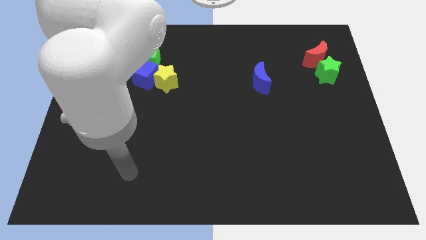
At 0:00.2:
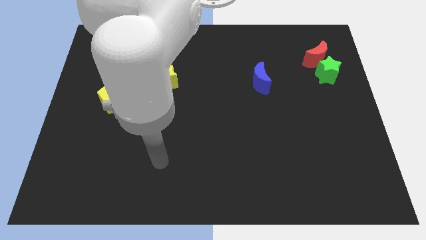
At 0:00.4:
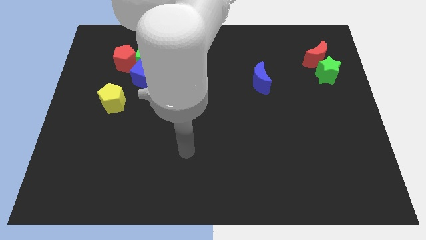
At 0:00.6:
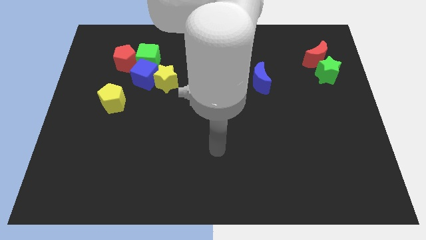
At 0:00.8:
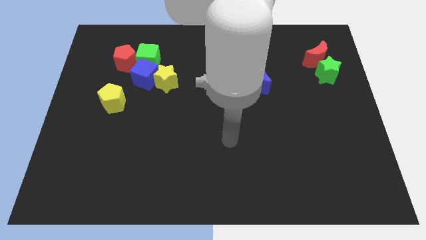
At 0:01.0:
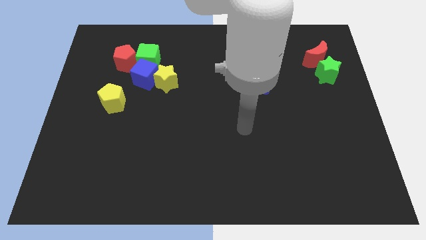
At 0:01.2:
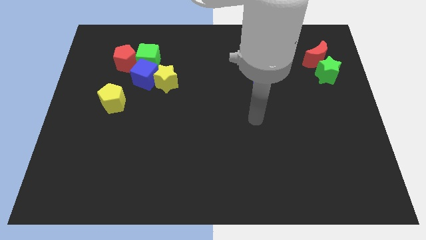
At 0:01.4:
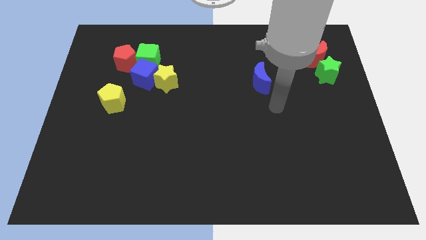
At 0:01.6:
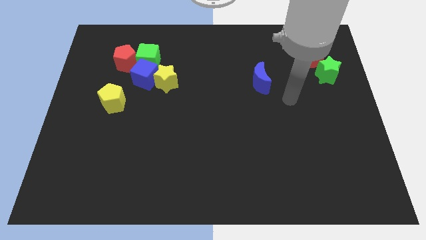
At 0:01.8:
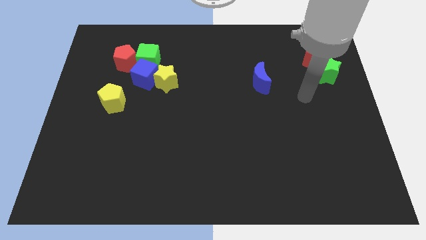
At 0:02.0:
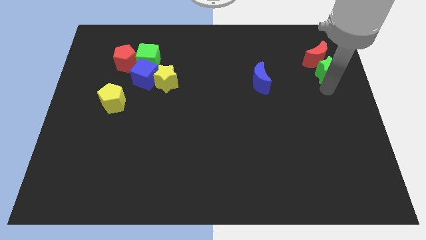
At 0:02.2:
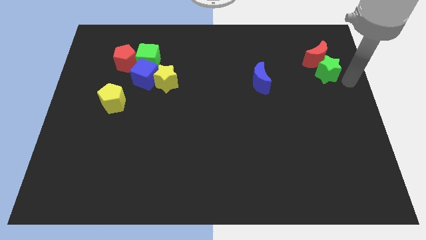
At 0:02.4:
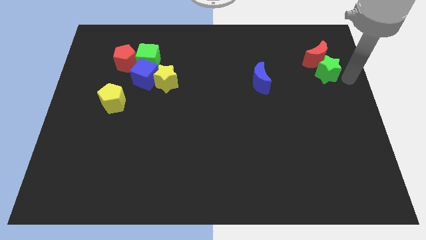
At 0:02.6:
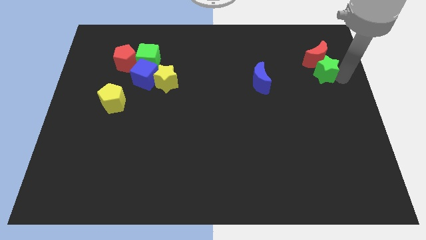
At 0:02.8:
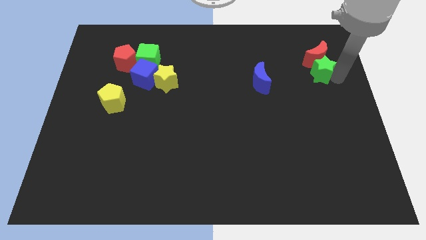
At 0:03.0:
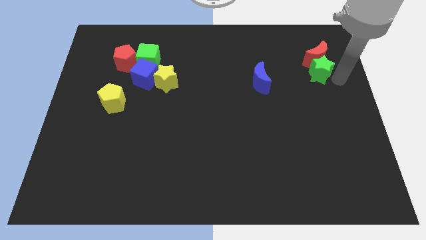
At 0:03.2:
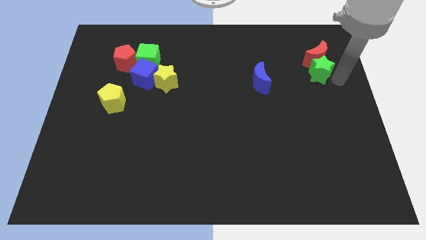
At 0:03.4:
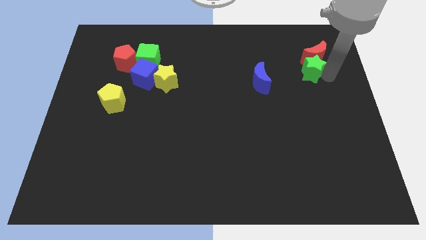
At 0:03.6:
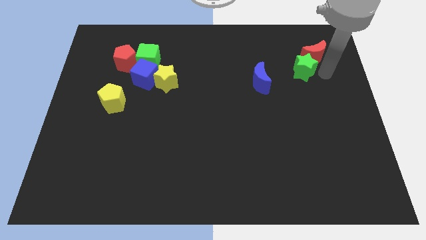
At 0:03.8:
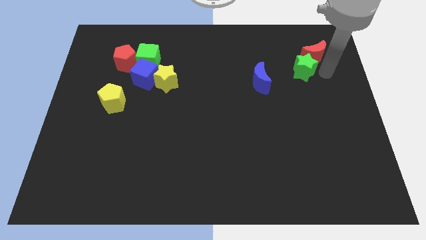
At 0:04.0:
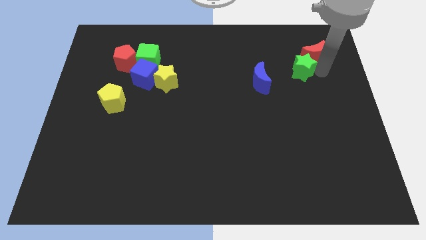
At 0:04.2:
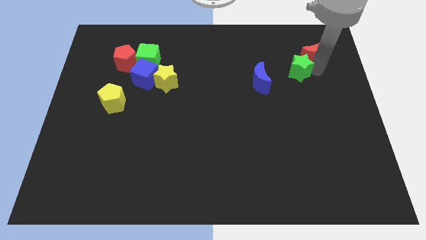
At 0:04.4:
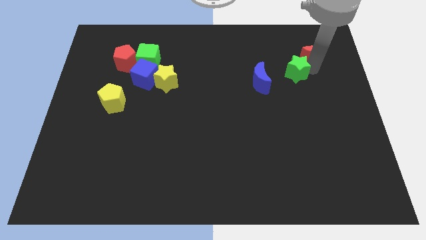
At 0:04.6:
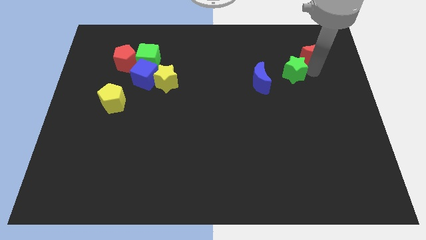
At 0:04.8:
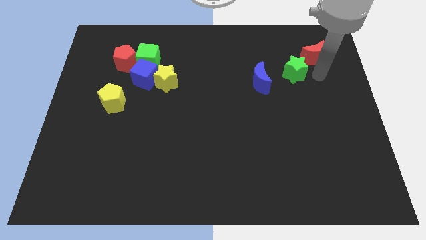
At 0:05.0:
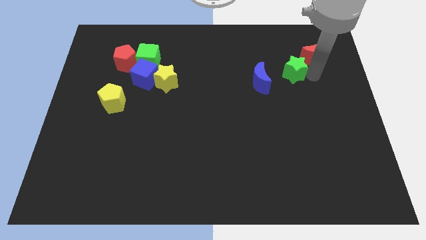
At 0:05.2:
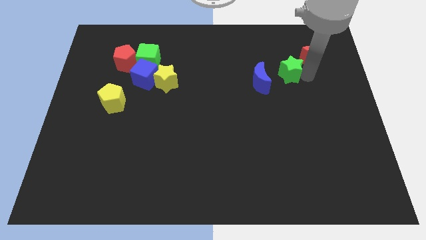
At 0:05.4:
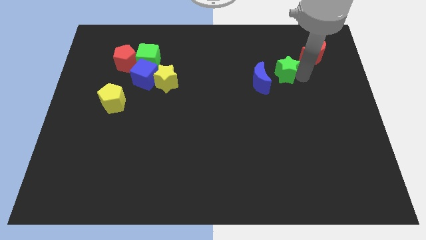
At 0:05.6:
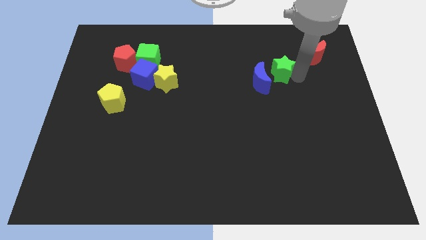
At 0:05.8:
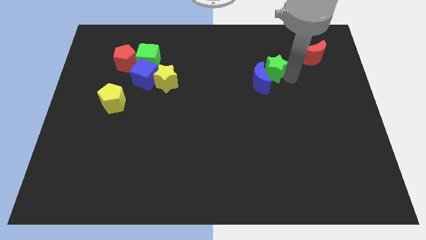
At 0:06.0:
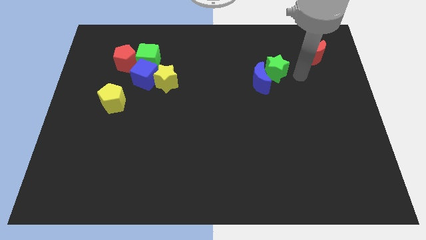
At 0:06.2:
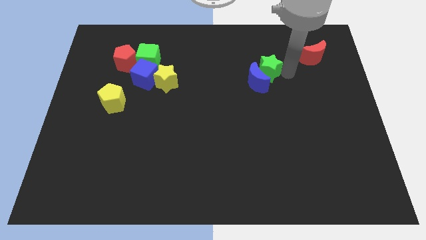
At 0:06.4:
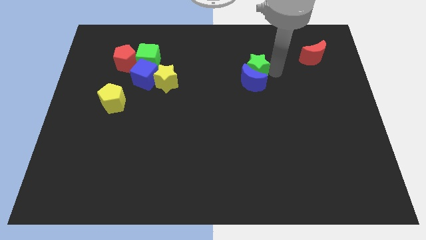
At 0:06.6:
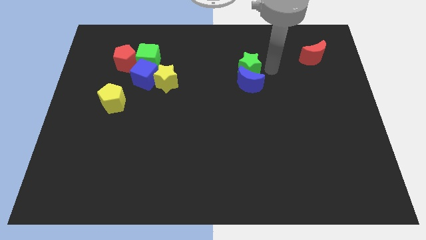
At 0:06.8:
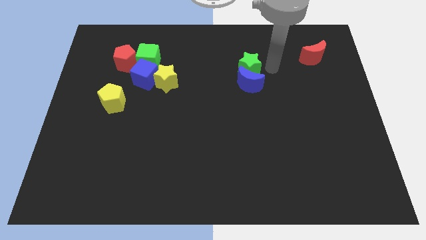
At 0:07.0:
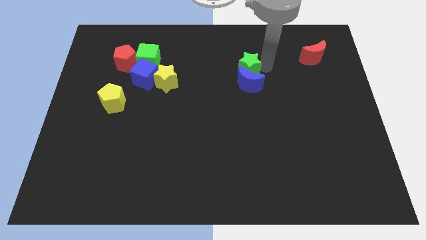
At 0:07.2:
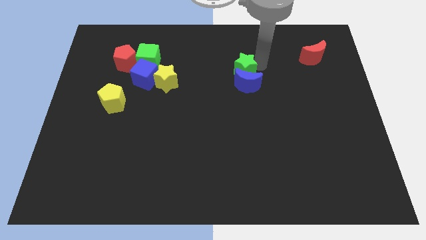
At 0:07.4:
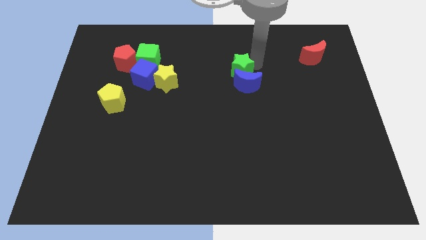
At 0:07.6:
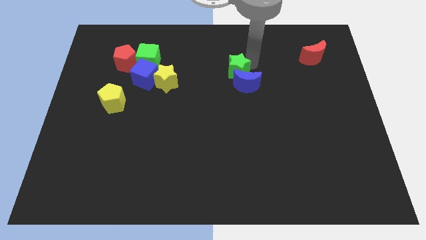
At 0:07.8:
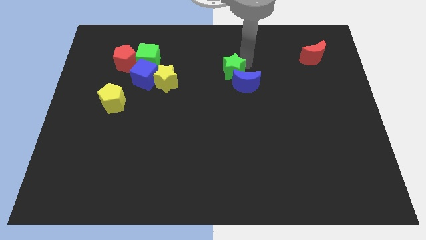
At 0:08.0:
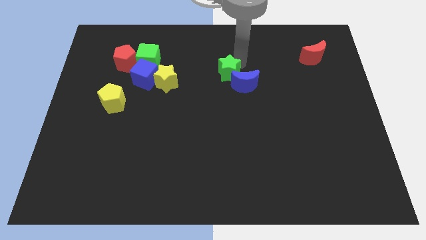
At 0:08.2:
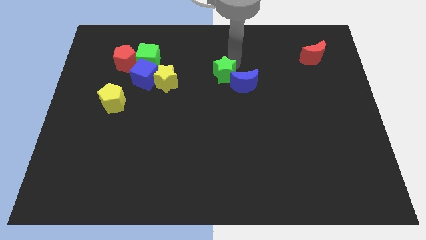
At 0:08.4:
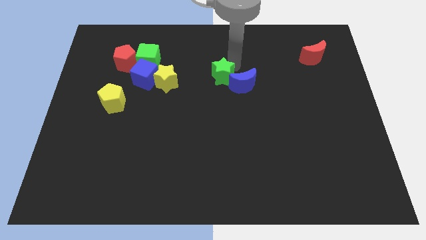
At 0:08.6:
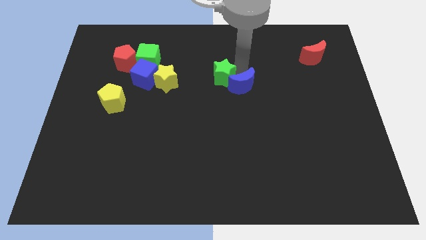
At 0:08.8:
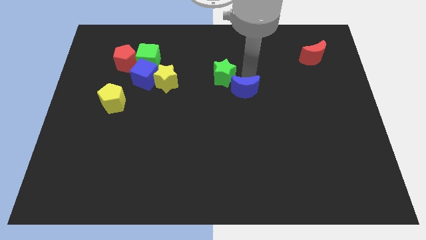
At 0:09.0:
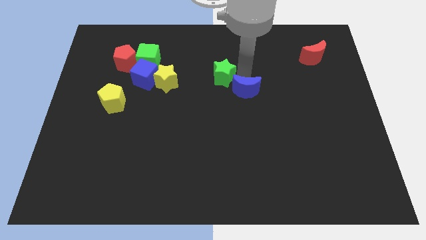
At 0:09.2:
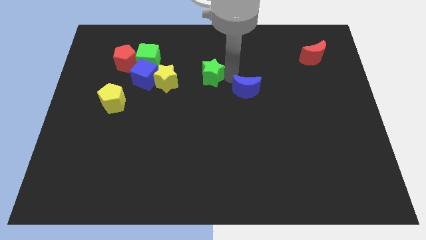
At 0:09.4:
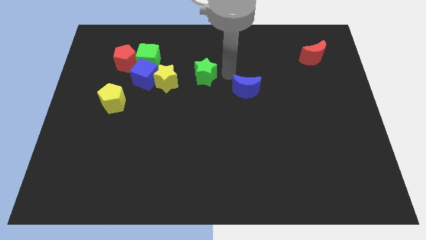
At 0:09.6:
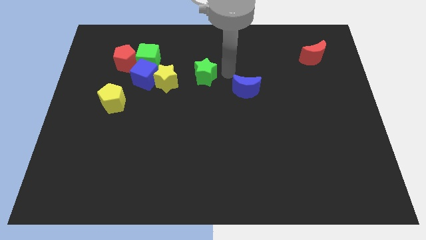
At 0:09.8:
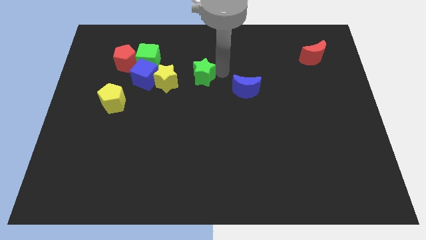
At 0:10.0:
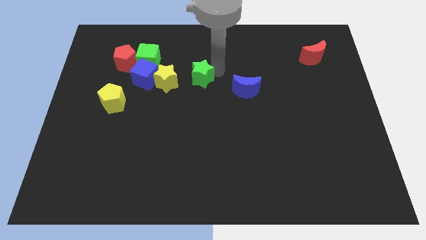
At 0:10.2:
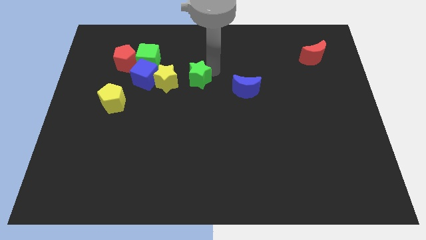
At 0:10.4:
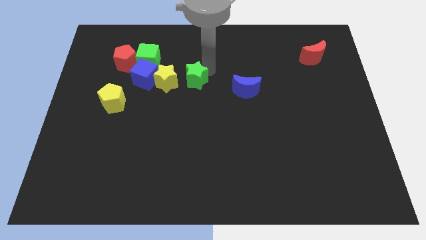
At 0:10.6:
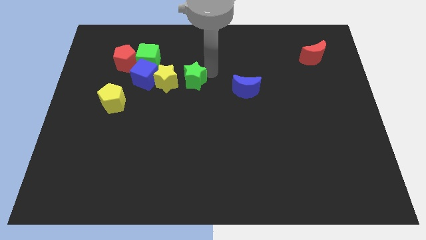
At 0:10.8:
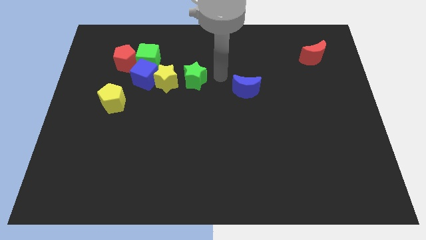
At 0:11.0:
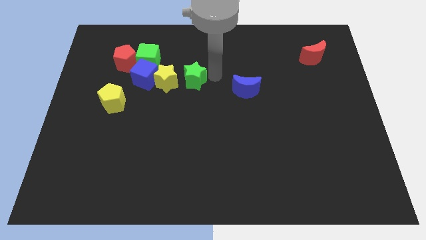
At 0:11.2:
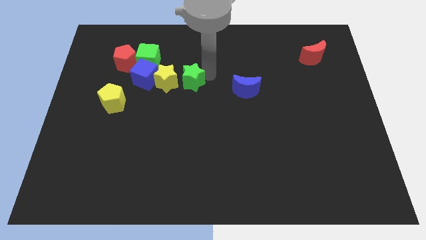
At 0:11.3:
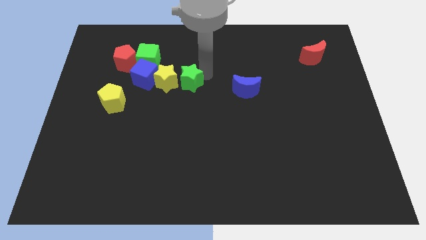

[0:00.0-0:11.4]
move the green star towards the yellow star

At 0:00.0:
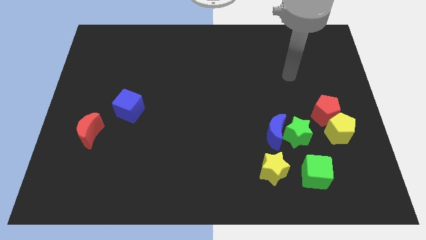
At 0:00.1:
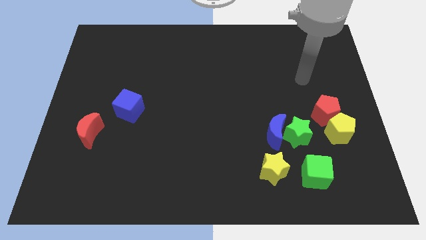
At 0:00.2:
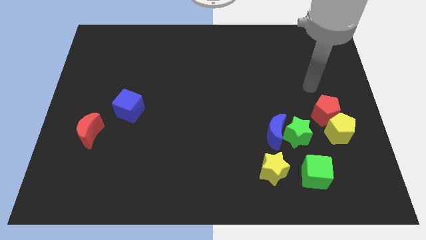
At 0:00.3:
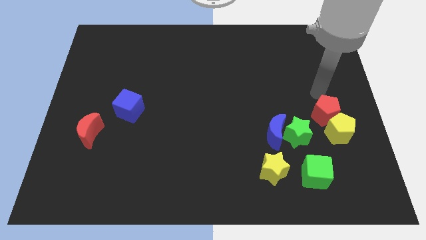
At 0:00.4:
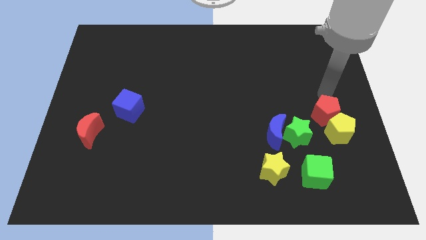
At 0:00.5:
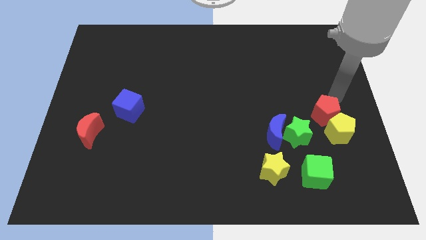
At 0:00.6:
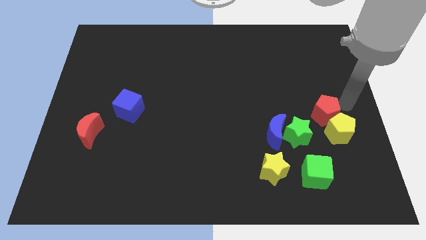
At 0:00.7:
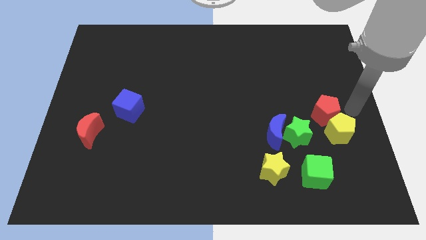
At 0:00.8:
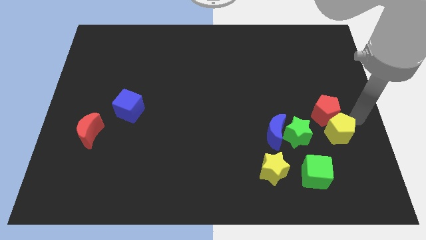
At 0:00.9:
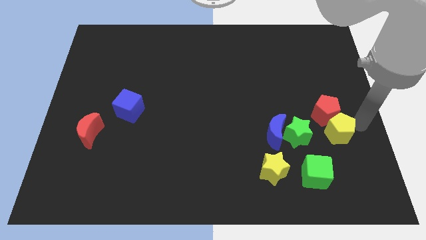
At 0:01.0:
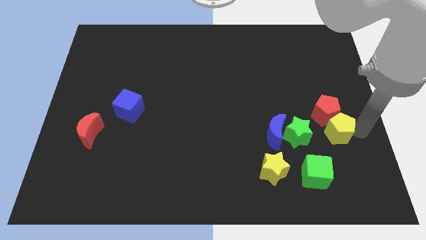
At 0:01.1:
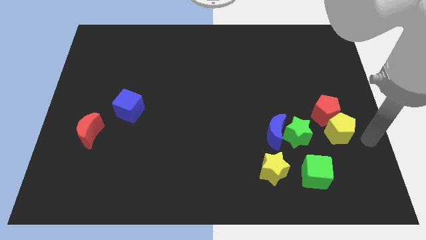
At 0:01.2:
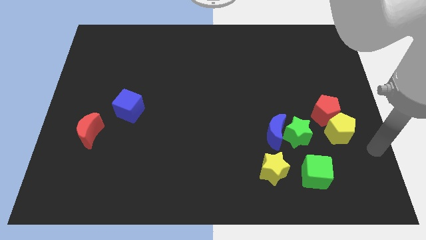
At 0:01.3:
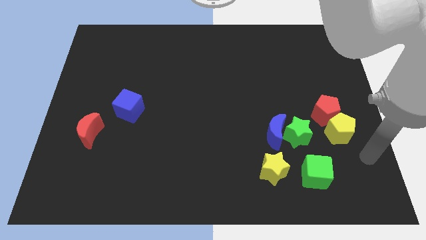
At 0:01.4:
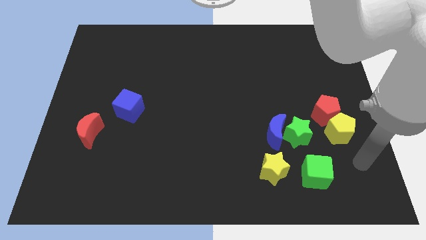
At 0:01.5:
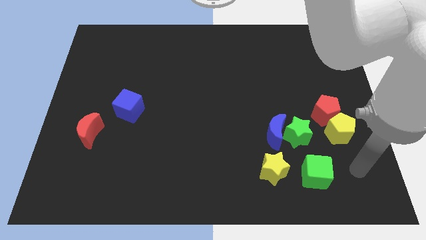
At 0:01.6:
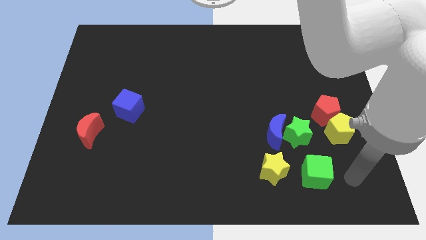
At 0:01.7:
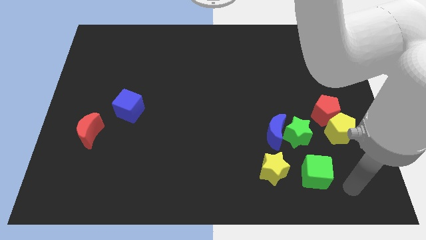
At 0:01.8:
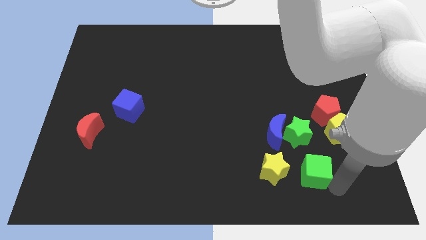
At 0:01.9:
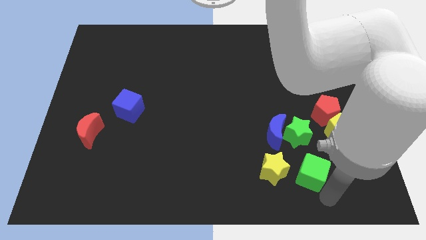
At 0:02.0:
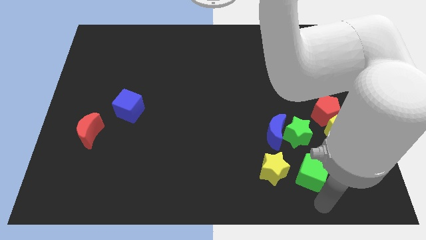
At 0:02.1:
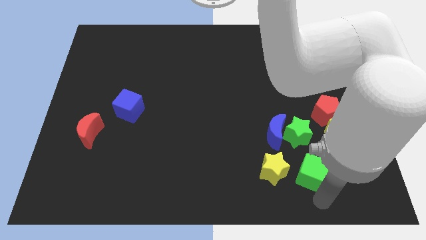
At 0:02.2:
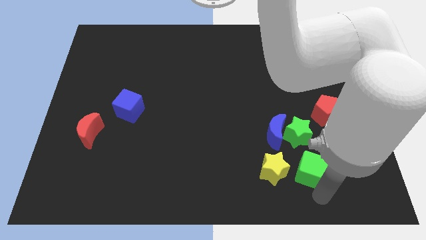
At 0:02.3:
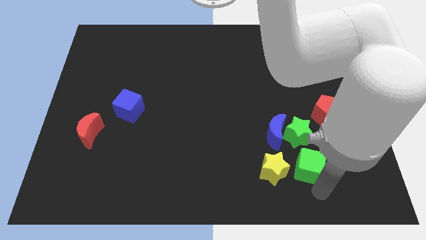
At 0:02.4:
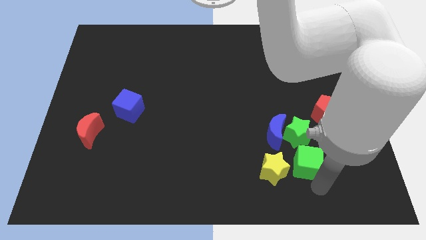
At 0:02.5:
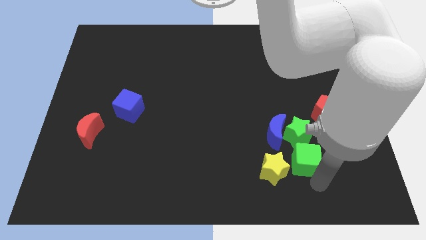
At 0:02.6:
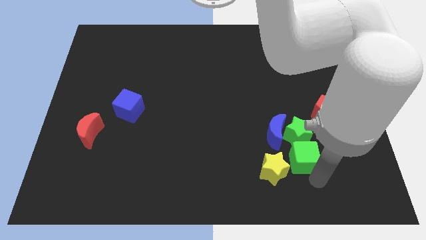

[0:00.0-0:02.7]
slide the green cube to the green star
